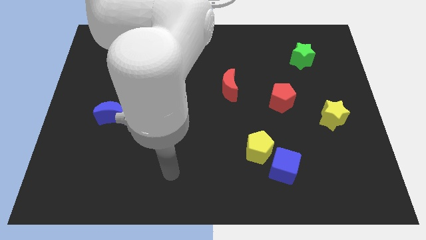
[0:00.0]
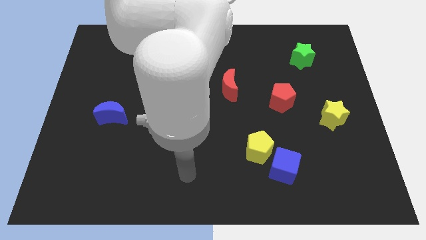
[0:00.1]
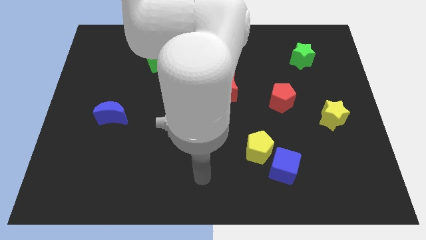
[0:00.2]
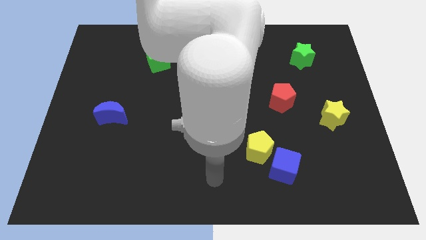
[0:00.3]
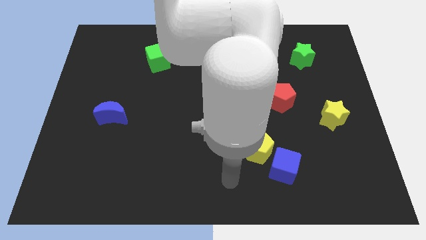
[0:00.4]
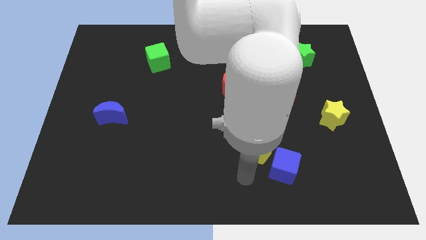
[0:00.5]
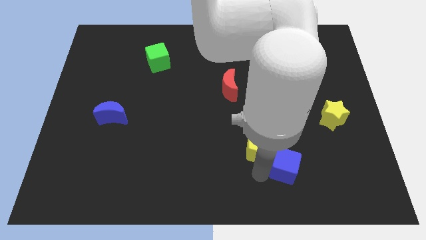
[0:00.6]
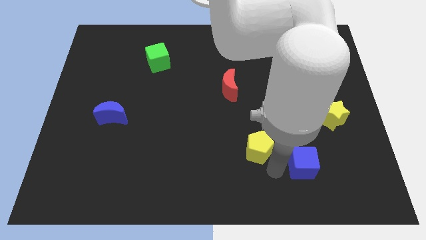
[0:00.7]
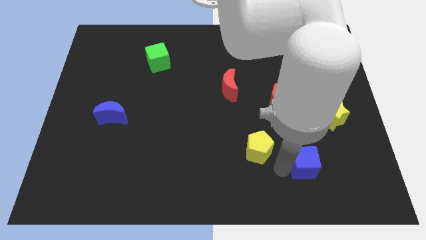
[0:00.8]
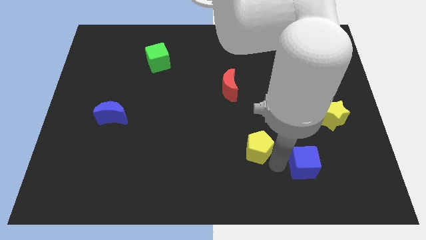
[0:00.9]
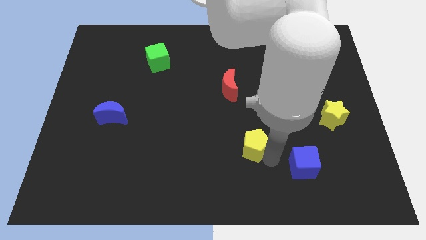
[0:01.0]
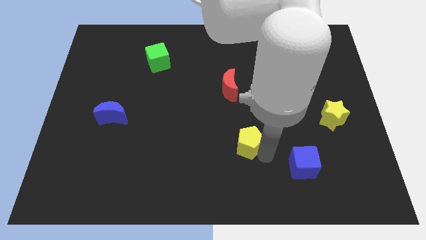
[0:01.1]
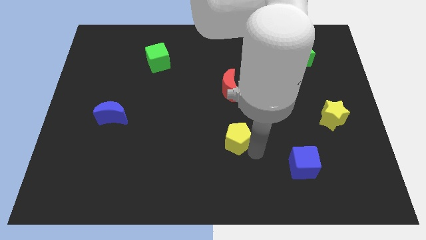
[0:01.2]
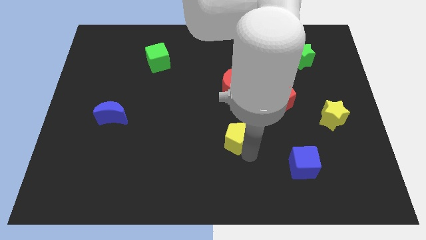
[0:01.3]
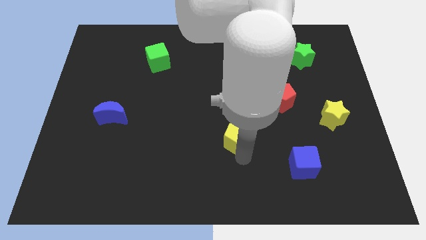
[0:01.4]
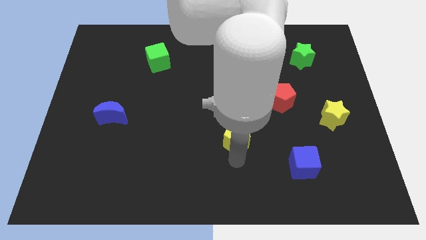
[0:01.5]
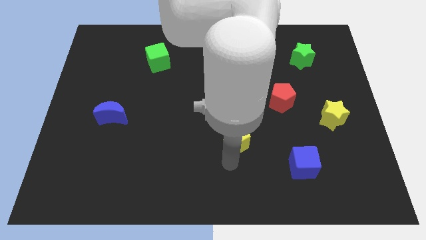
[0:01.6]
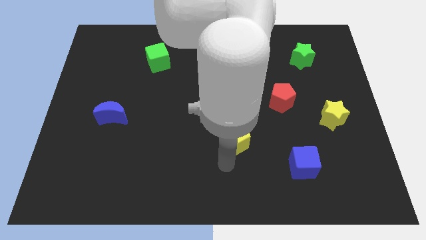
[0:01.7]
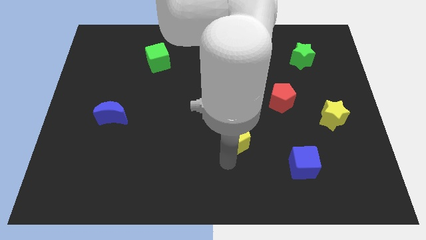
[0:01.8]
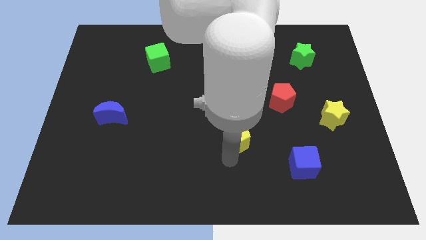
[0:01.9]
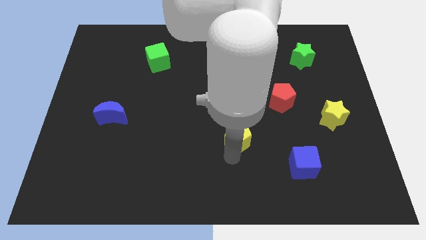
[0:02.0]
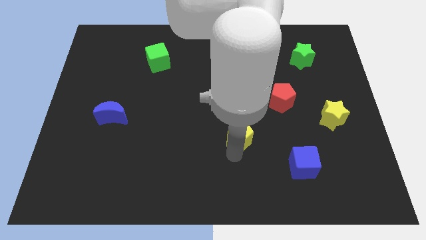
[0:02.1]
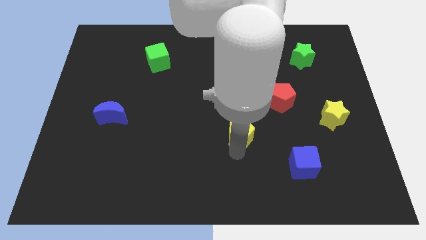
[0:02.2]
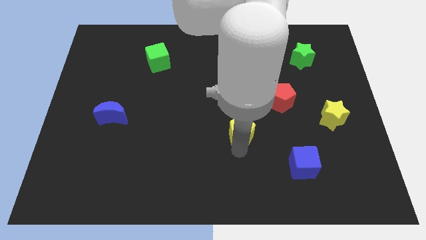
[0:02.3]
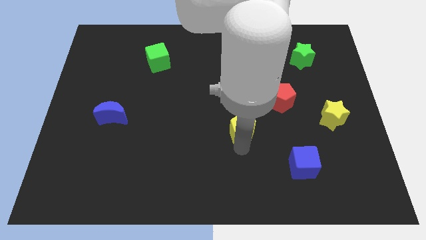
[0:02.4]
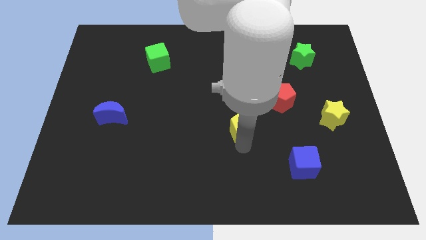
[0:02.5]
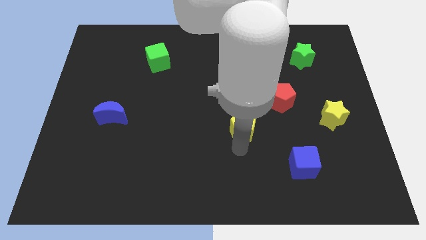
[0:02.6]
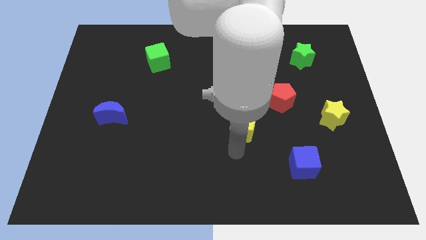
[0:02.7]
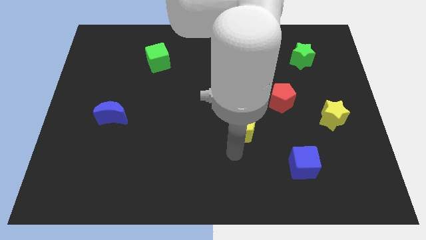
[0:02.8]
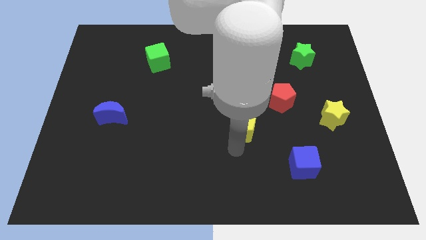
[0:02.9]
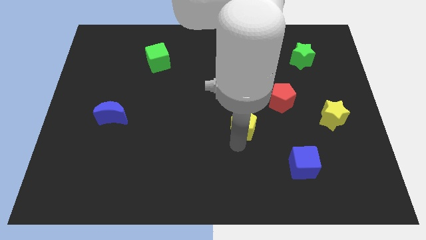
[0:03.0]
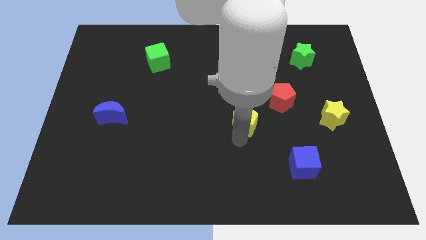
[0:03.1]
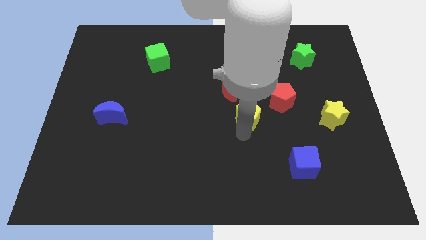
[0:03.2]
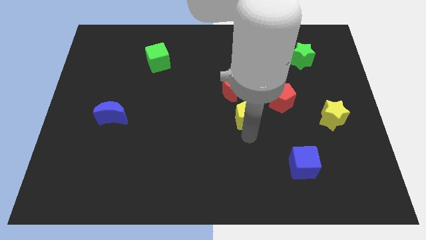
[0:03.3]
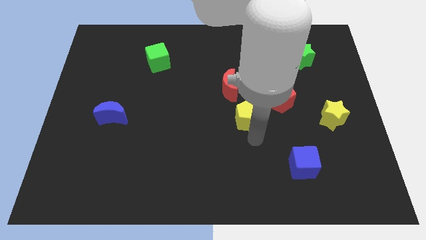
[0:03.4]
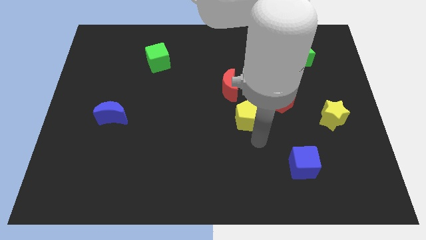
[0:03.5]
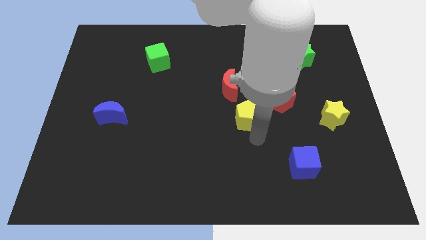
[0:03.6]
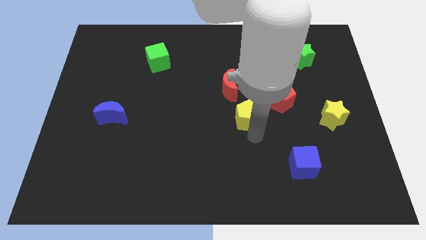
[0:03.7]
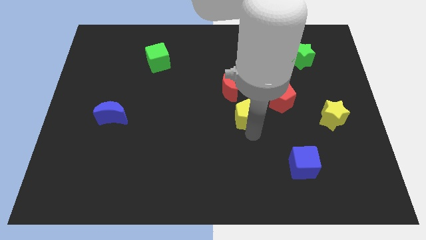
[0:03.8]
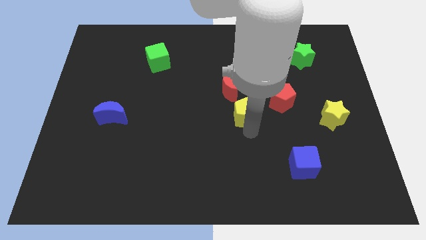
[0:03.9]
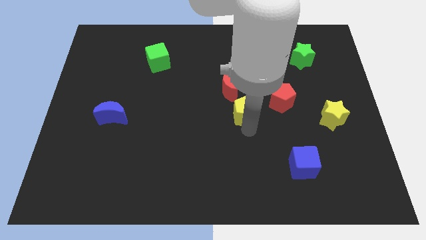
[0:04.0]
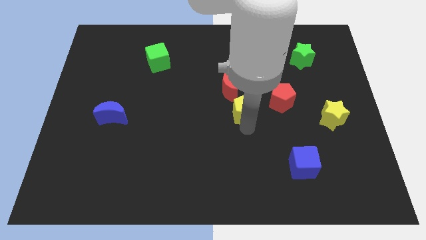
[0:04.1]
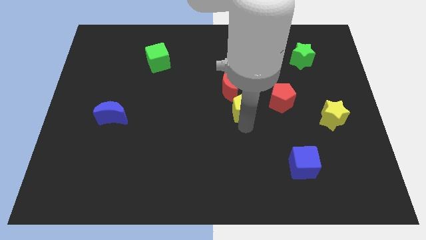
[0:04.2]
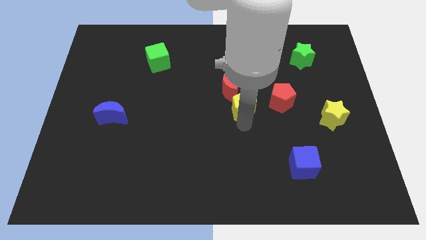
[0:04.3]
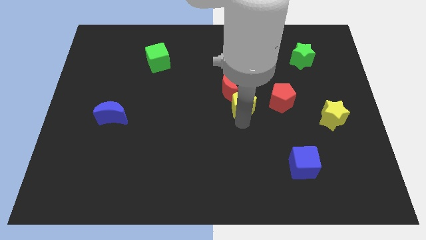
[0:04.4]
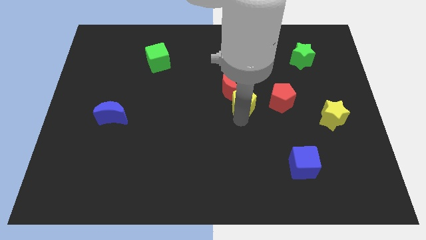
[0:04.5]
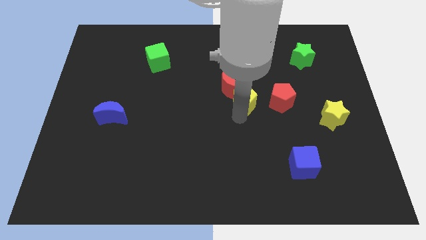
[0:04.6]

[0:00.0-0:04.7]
slide the yellow pentagon next to the red moon

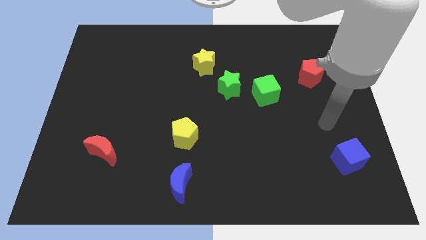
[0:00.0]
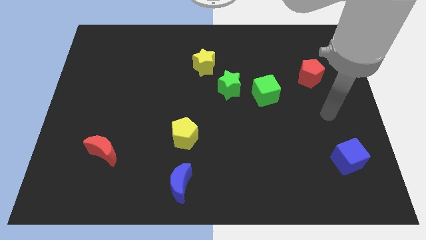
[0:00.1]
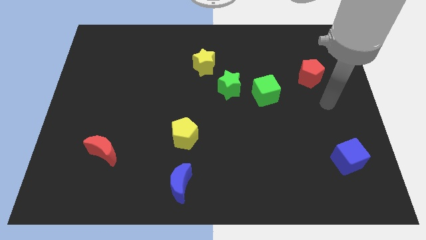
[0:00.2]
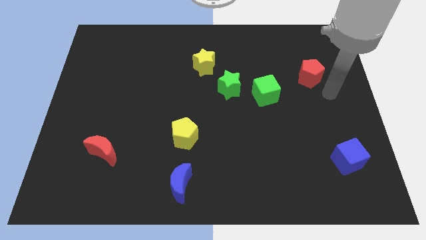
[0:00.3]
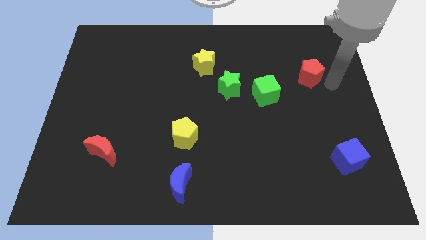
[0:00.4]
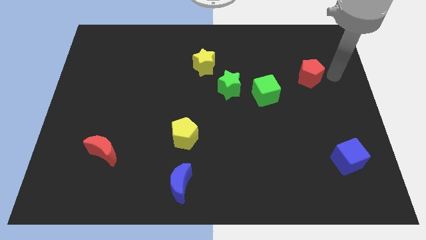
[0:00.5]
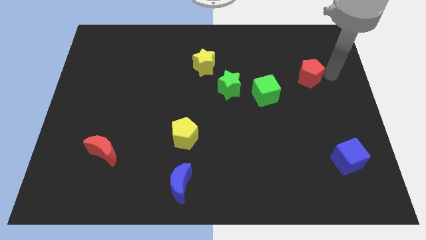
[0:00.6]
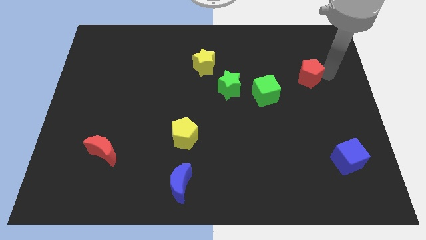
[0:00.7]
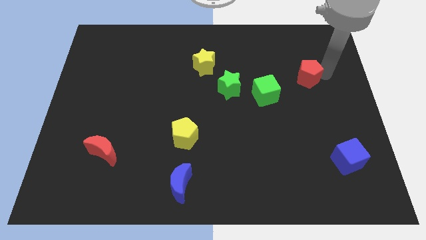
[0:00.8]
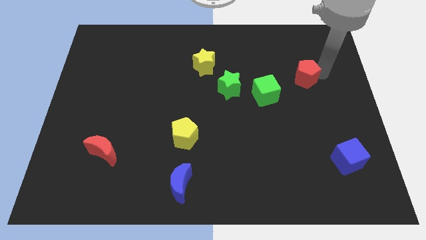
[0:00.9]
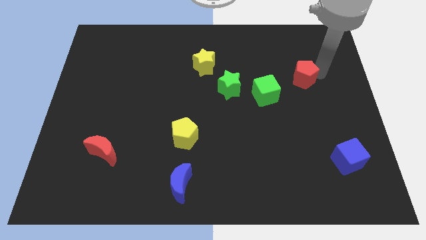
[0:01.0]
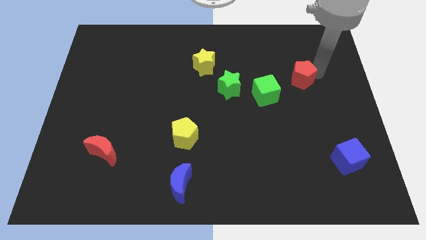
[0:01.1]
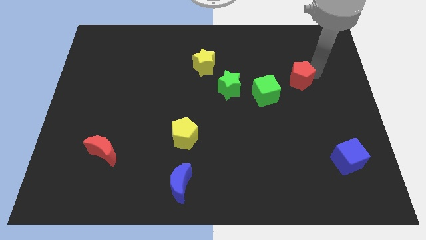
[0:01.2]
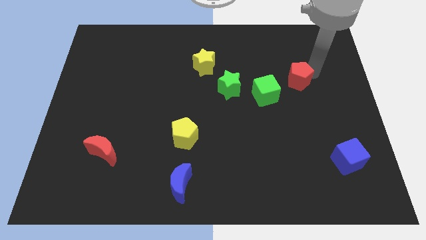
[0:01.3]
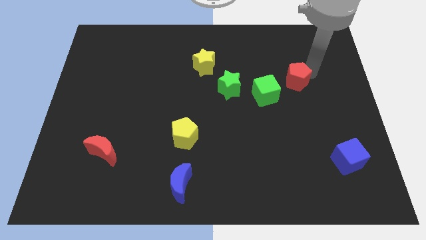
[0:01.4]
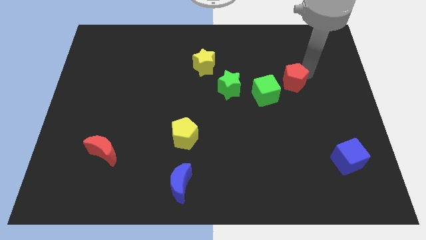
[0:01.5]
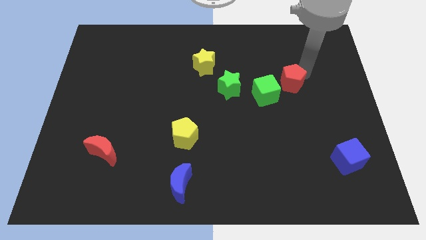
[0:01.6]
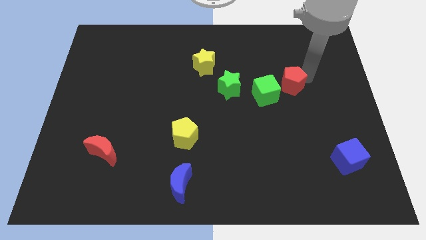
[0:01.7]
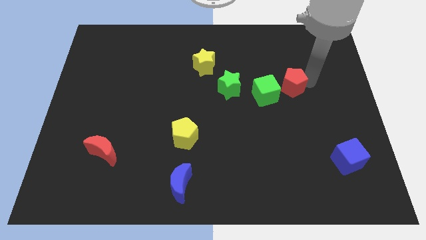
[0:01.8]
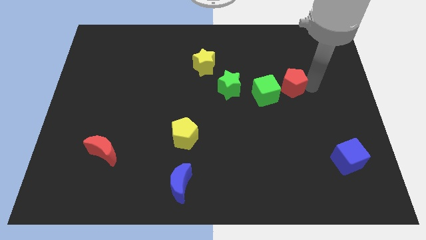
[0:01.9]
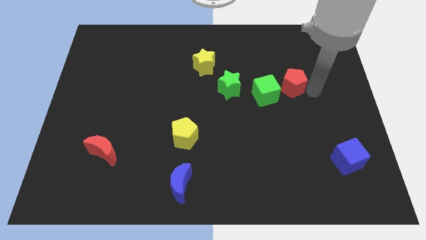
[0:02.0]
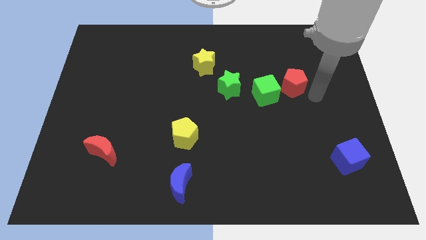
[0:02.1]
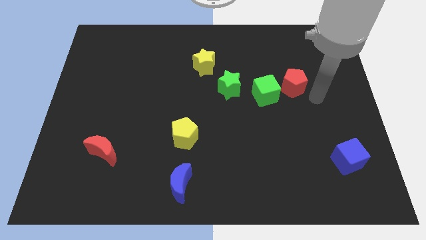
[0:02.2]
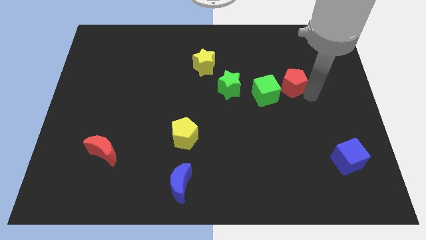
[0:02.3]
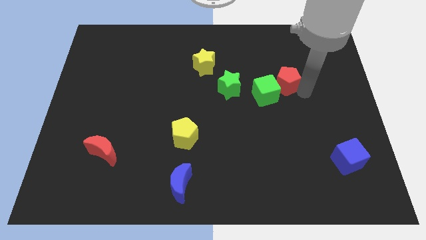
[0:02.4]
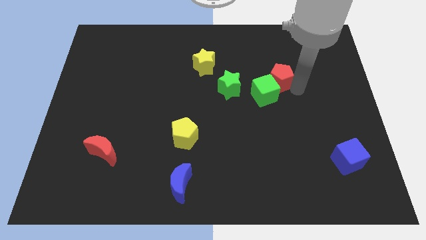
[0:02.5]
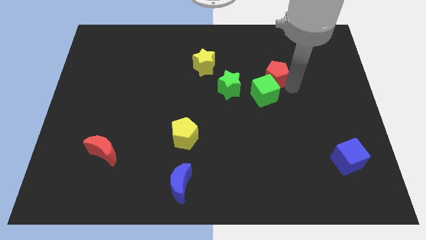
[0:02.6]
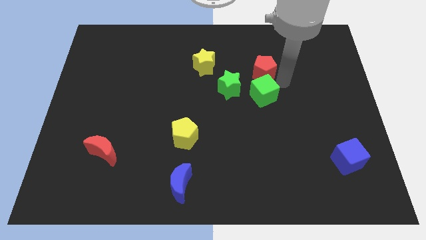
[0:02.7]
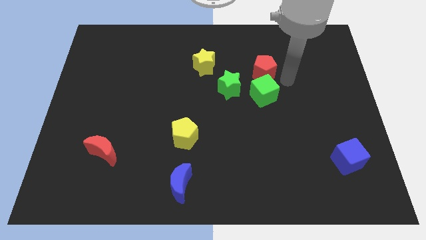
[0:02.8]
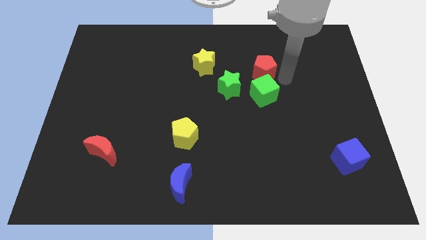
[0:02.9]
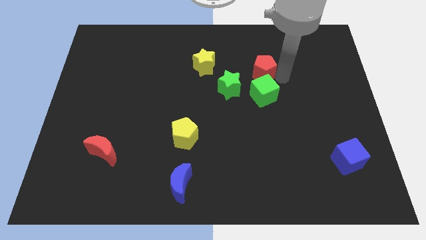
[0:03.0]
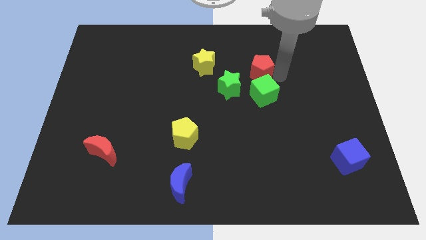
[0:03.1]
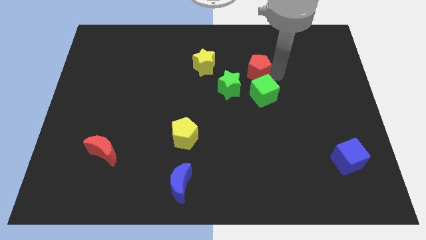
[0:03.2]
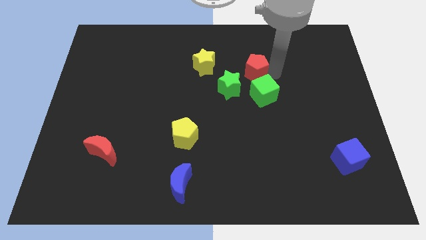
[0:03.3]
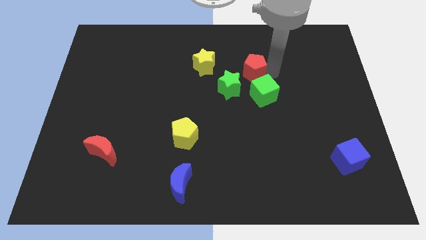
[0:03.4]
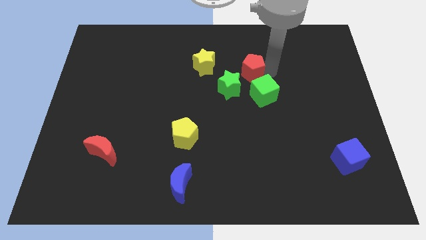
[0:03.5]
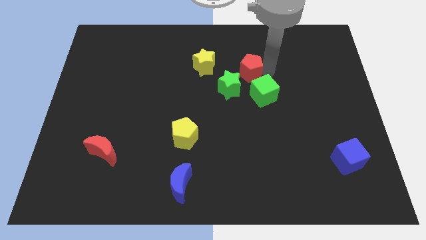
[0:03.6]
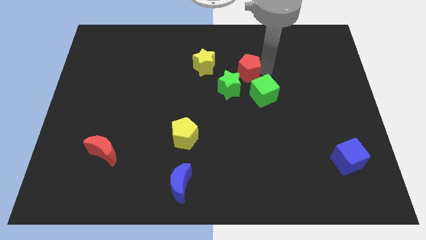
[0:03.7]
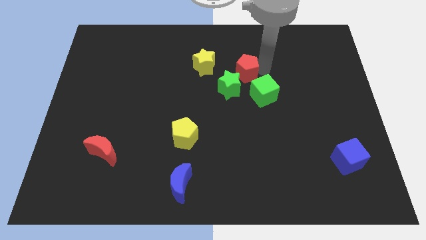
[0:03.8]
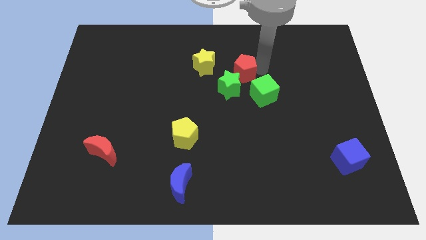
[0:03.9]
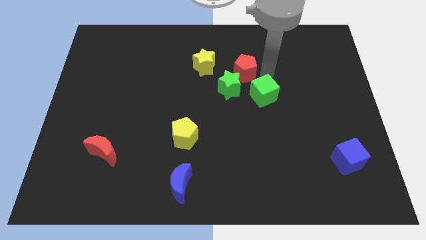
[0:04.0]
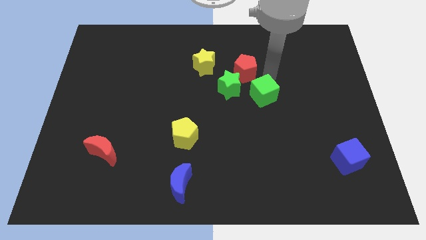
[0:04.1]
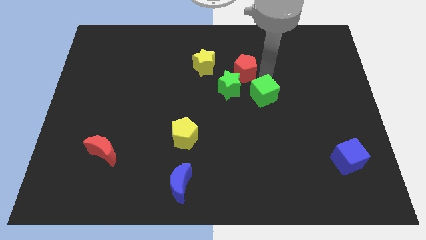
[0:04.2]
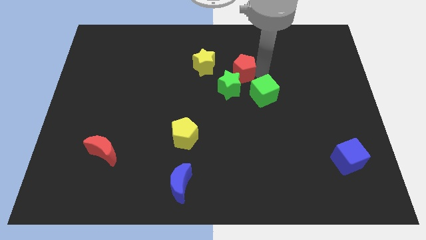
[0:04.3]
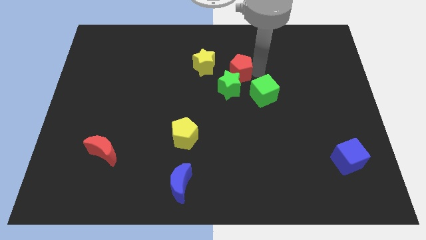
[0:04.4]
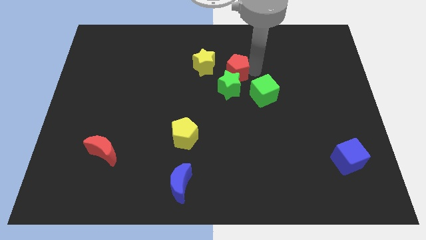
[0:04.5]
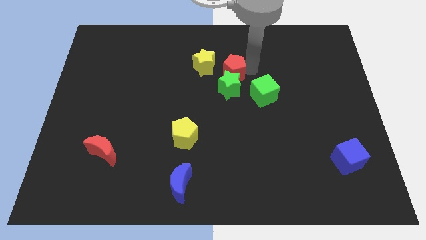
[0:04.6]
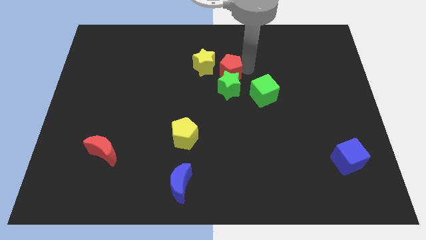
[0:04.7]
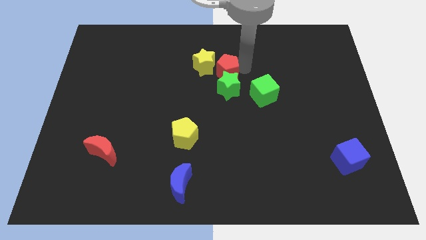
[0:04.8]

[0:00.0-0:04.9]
slide the red pentagon towards the yellow star
